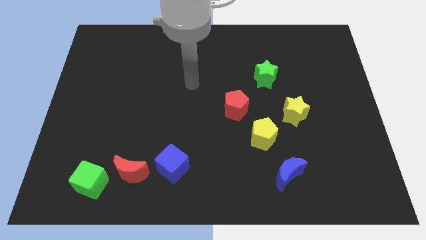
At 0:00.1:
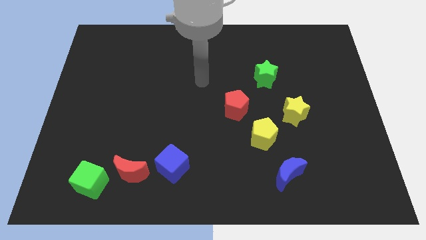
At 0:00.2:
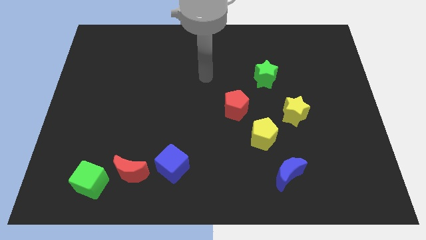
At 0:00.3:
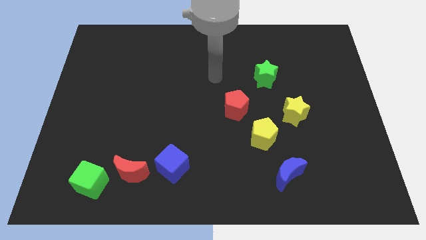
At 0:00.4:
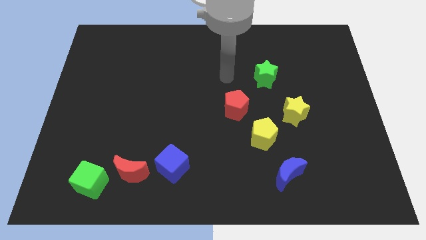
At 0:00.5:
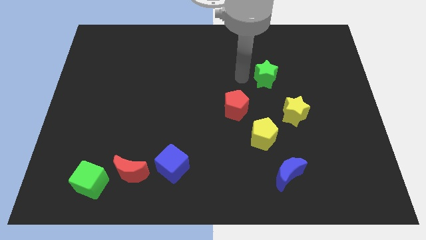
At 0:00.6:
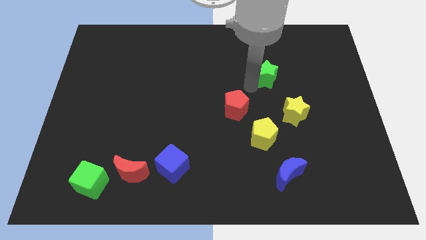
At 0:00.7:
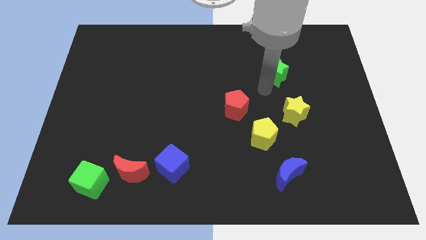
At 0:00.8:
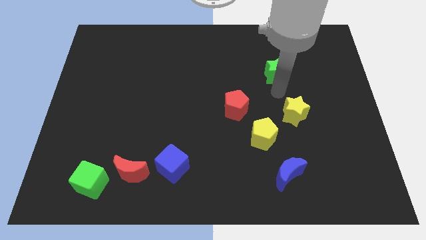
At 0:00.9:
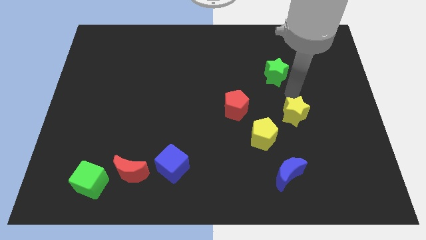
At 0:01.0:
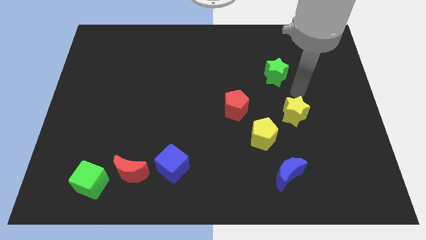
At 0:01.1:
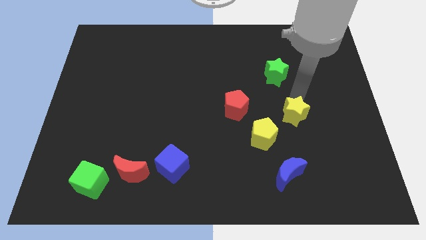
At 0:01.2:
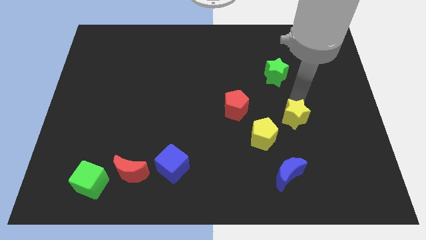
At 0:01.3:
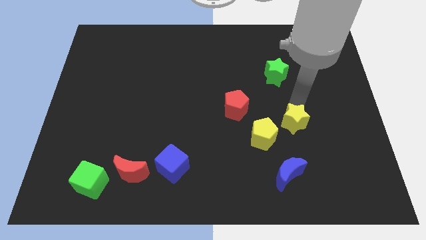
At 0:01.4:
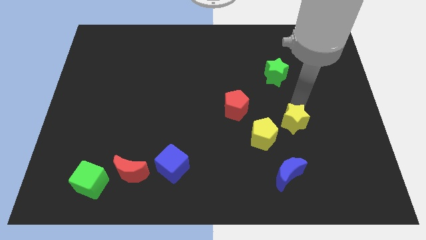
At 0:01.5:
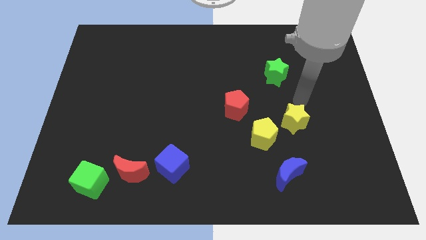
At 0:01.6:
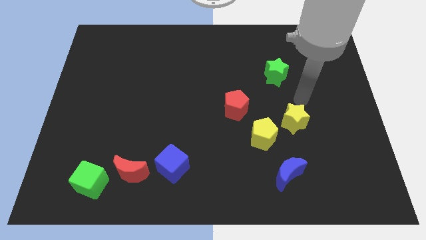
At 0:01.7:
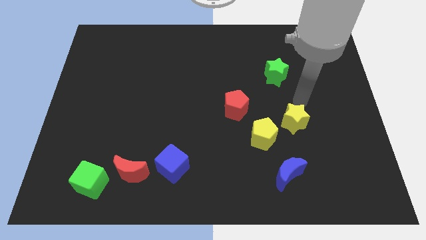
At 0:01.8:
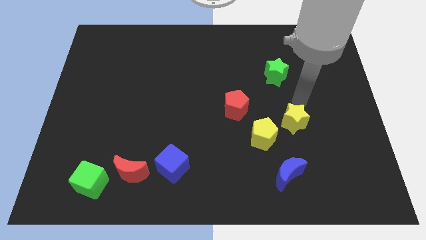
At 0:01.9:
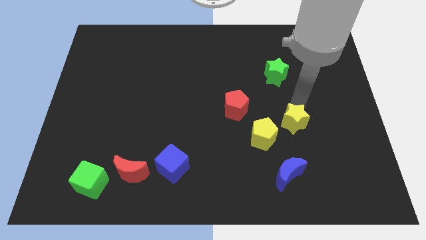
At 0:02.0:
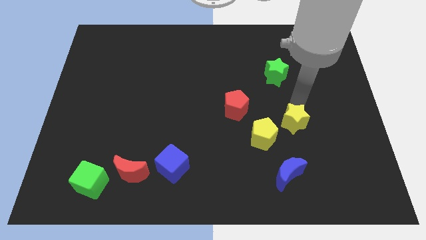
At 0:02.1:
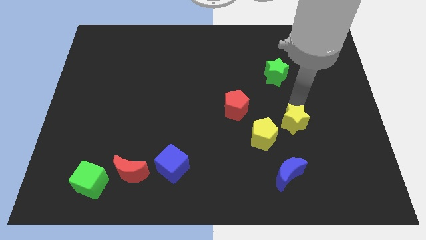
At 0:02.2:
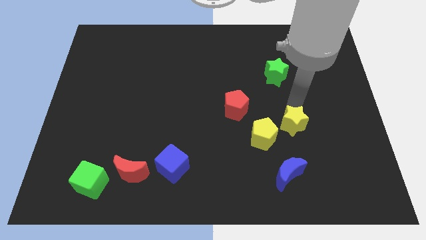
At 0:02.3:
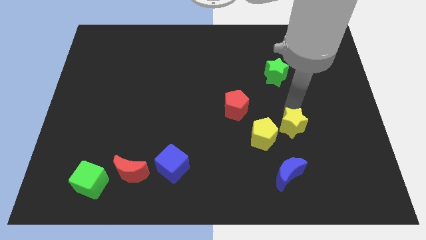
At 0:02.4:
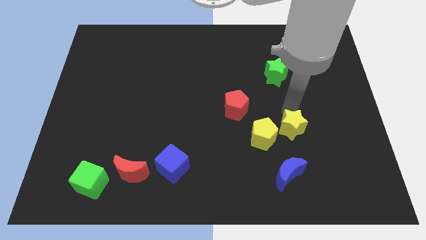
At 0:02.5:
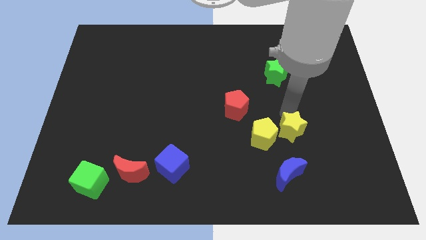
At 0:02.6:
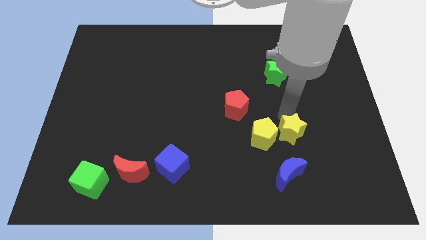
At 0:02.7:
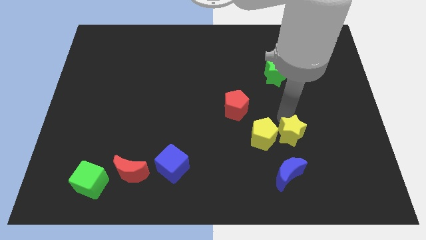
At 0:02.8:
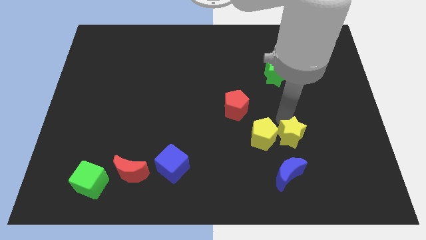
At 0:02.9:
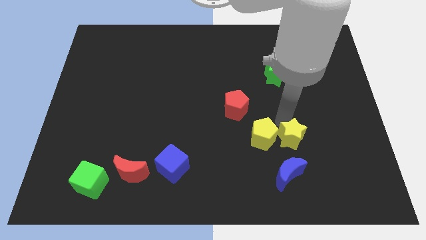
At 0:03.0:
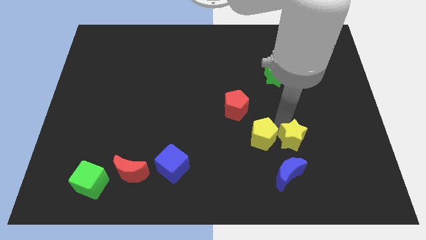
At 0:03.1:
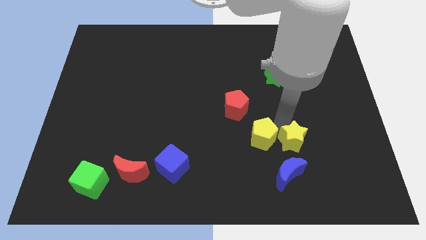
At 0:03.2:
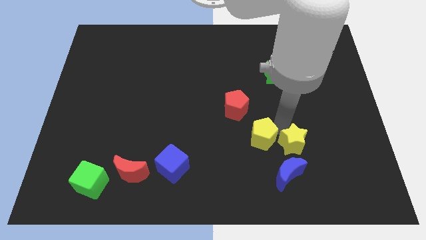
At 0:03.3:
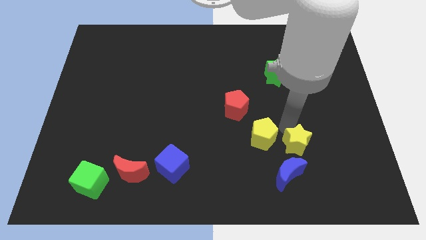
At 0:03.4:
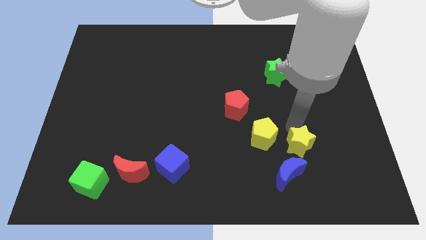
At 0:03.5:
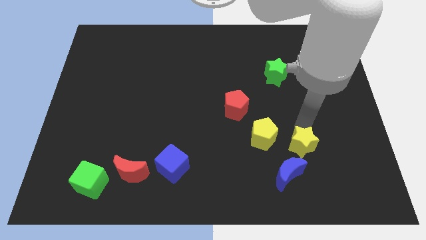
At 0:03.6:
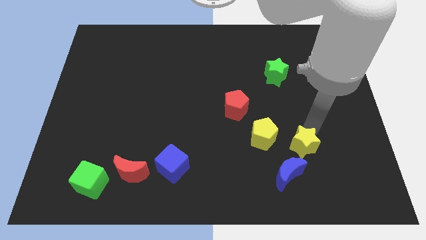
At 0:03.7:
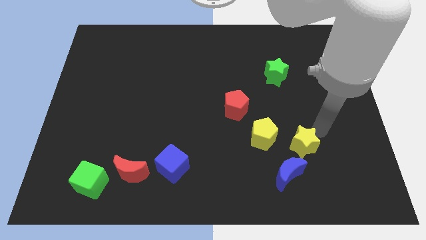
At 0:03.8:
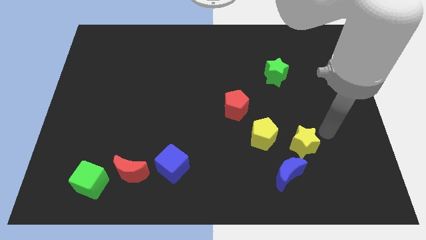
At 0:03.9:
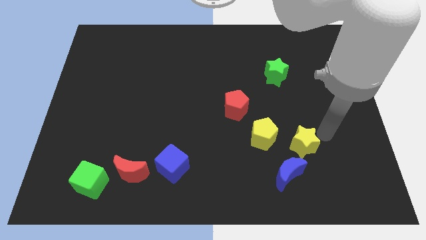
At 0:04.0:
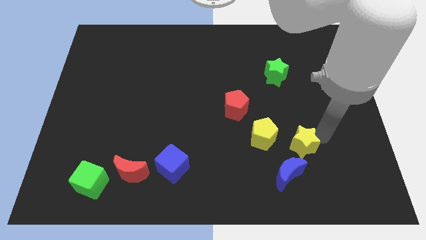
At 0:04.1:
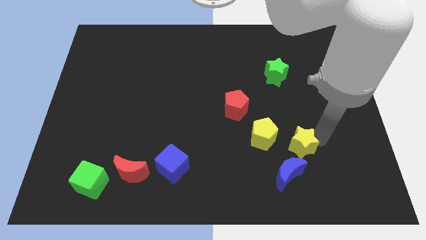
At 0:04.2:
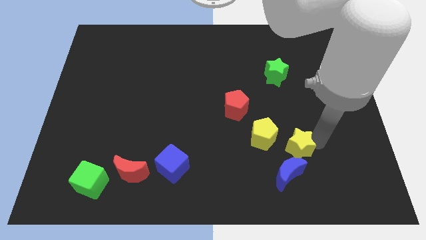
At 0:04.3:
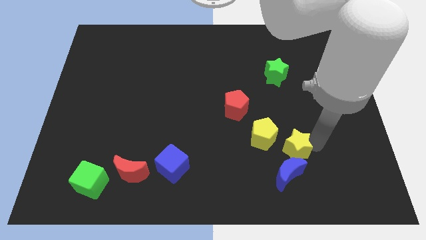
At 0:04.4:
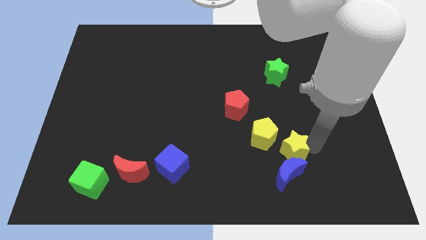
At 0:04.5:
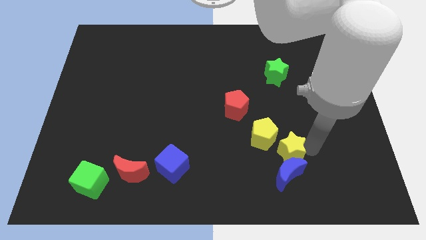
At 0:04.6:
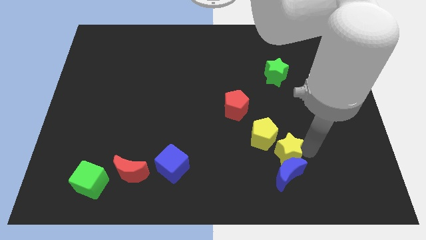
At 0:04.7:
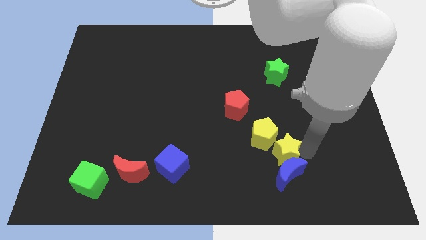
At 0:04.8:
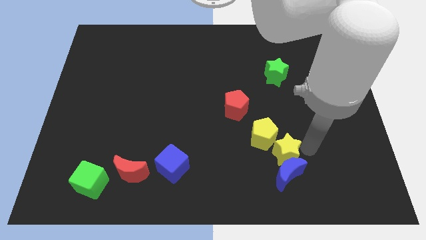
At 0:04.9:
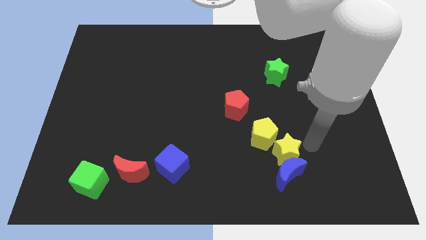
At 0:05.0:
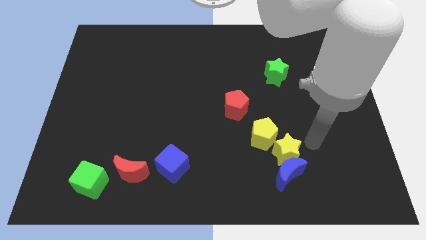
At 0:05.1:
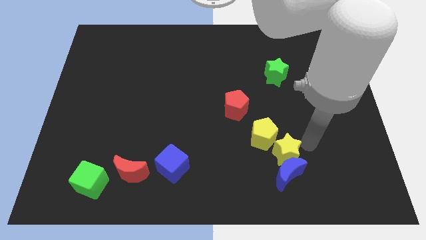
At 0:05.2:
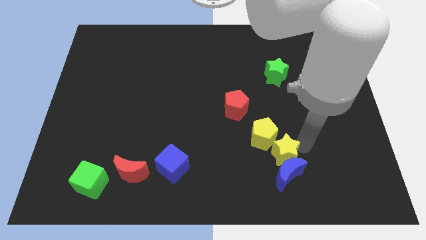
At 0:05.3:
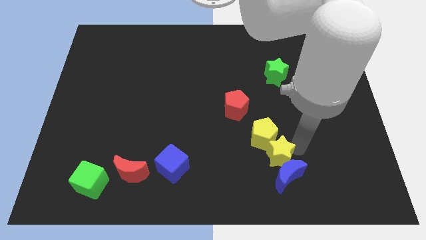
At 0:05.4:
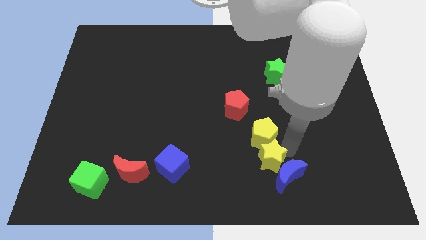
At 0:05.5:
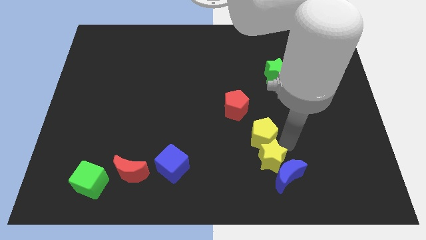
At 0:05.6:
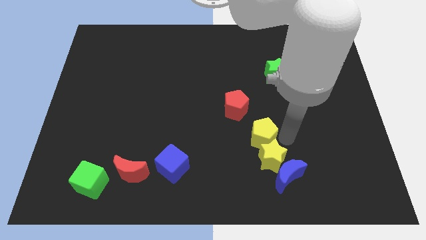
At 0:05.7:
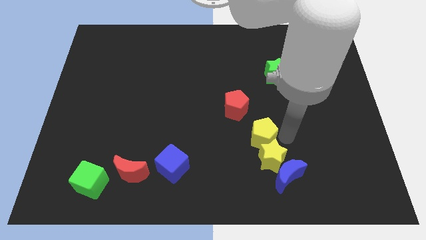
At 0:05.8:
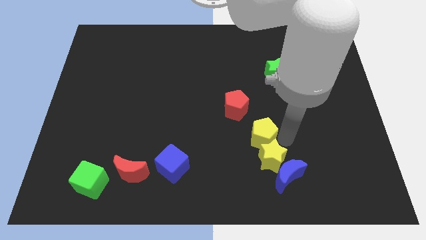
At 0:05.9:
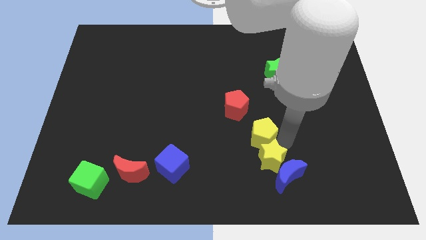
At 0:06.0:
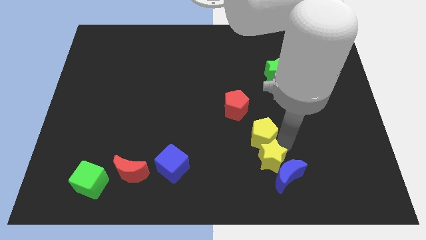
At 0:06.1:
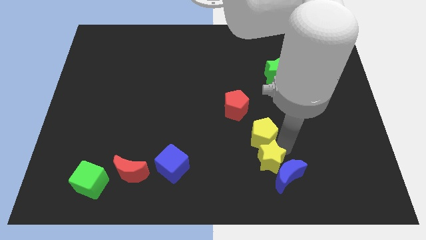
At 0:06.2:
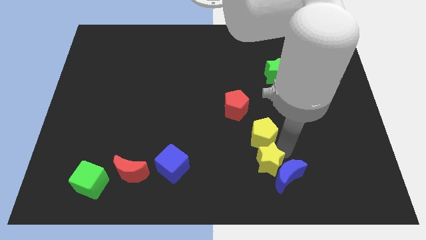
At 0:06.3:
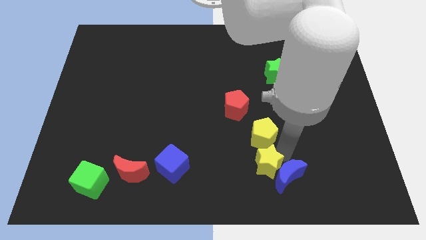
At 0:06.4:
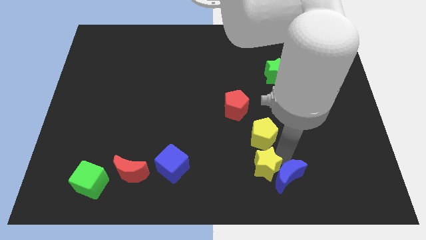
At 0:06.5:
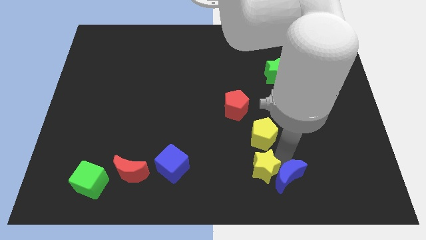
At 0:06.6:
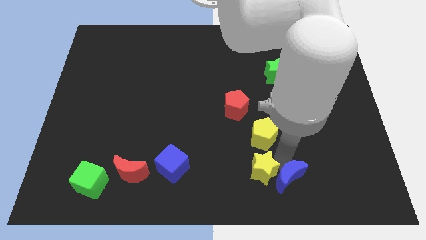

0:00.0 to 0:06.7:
slide the yellow star to the bottom side

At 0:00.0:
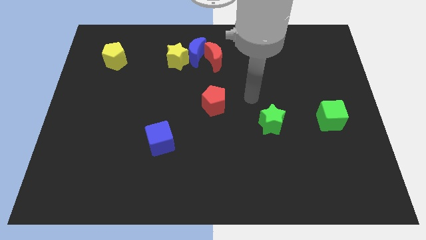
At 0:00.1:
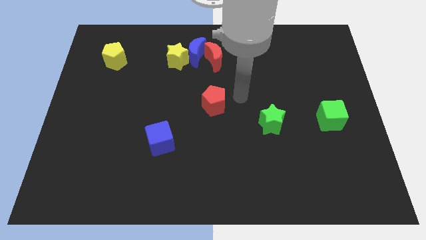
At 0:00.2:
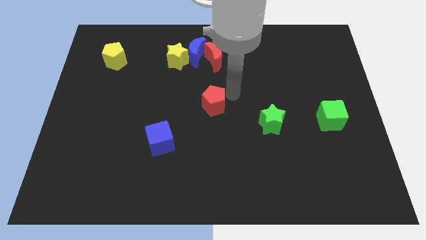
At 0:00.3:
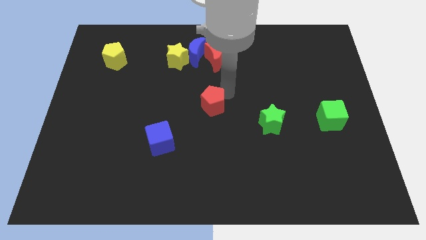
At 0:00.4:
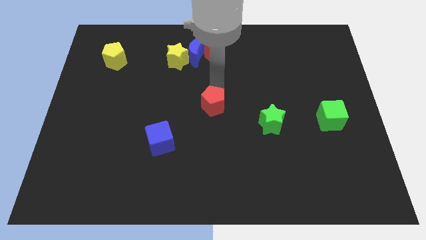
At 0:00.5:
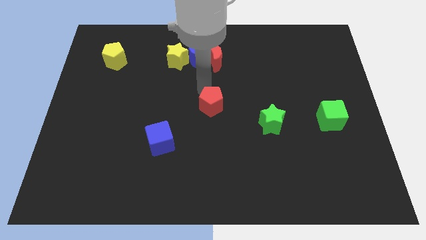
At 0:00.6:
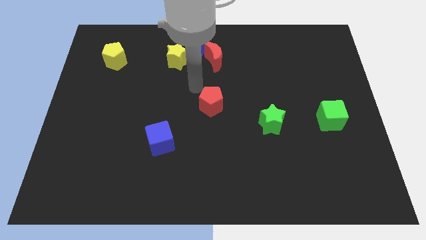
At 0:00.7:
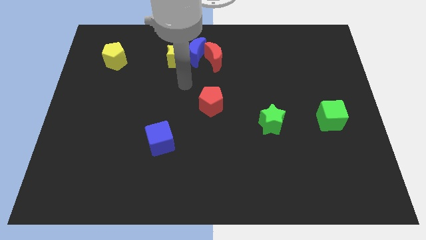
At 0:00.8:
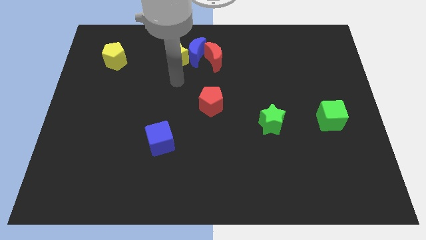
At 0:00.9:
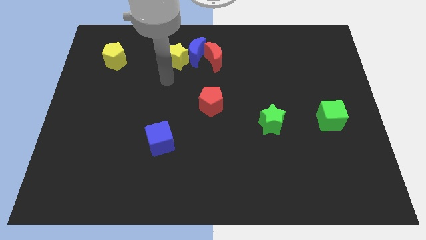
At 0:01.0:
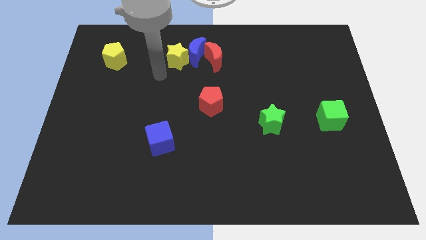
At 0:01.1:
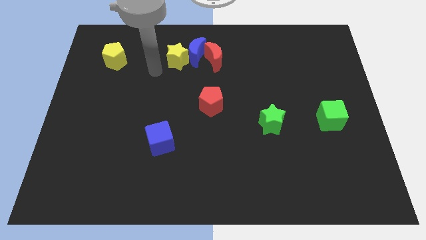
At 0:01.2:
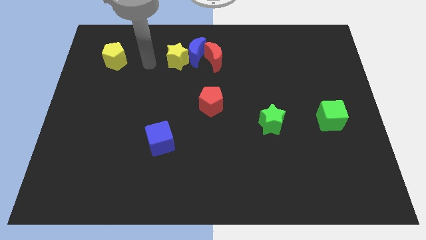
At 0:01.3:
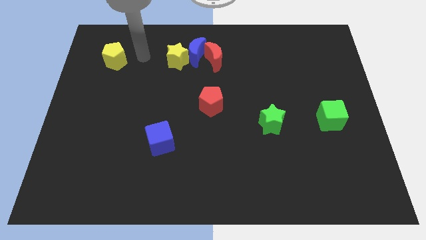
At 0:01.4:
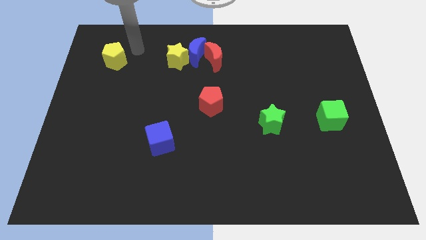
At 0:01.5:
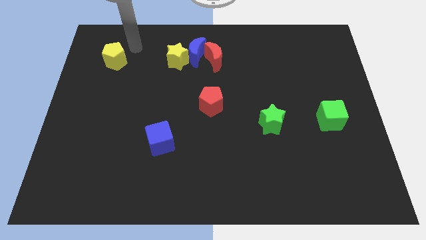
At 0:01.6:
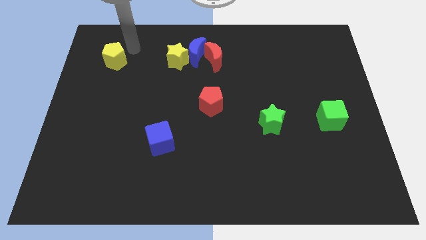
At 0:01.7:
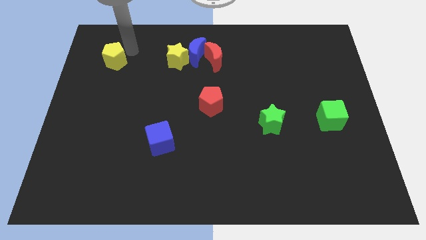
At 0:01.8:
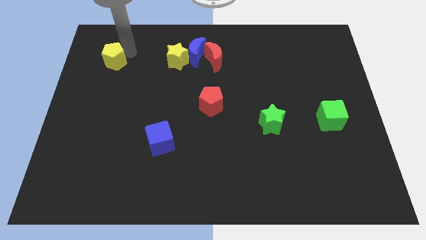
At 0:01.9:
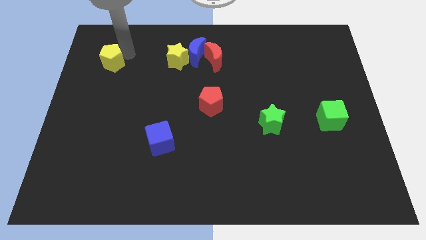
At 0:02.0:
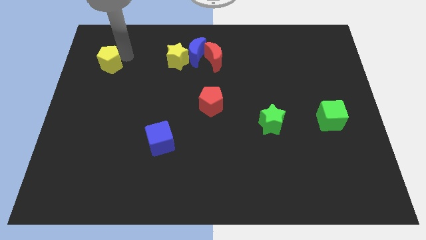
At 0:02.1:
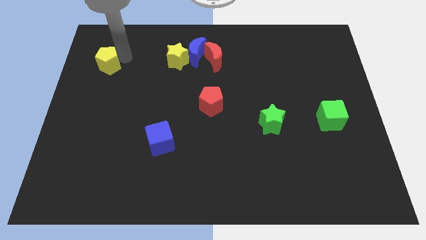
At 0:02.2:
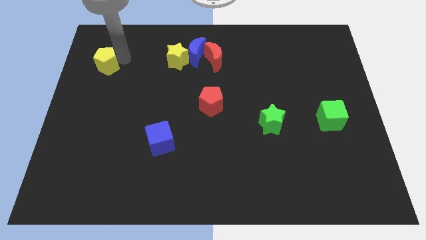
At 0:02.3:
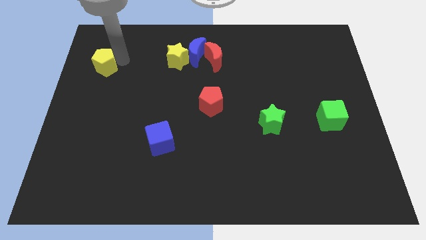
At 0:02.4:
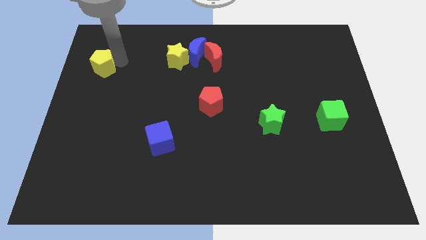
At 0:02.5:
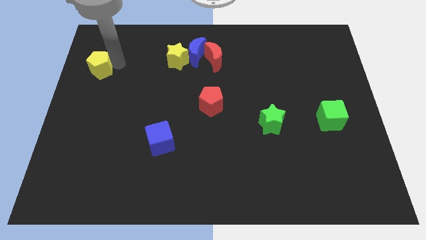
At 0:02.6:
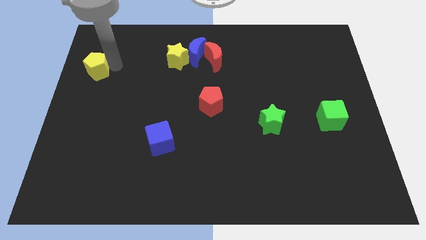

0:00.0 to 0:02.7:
move the yellow pentagon to the left side of the board
